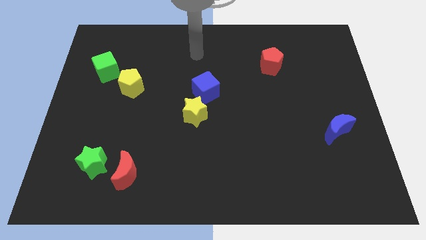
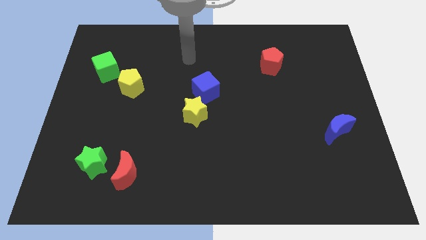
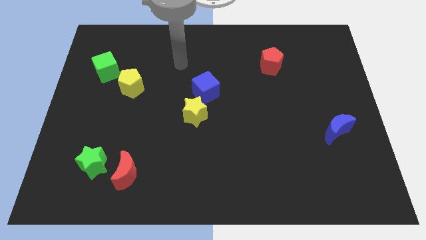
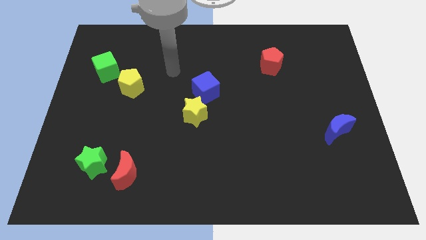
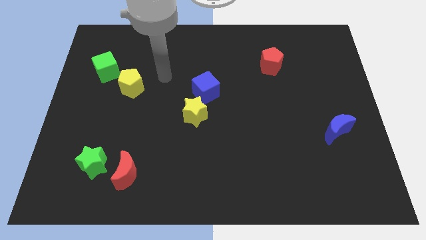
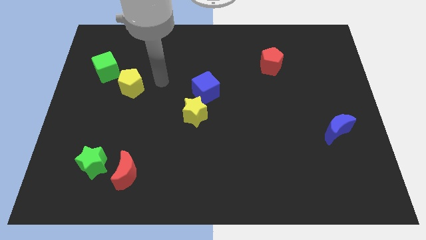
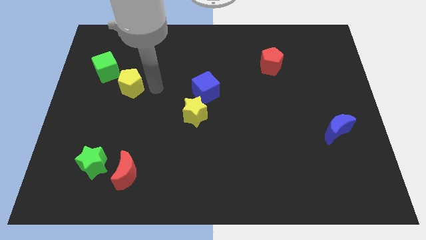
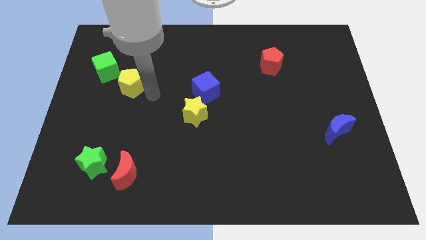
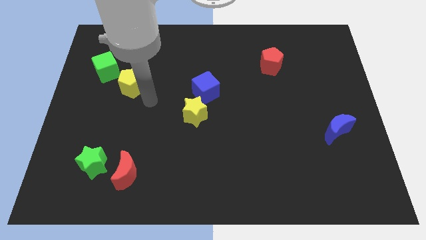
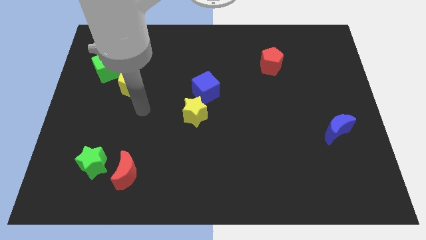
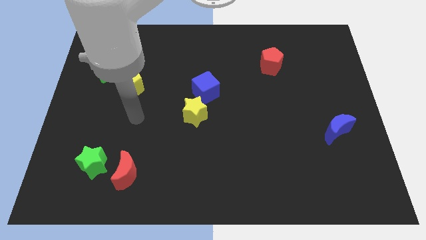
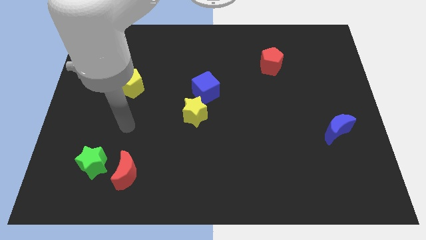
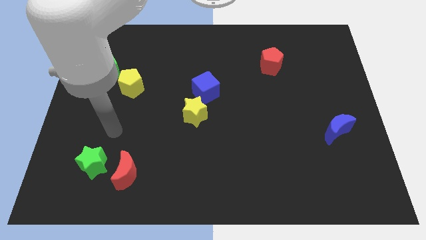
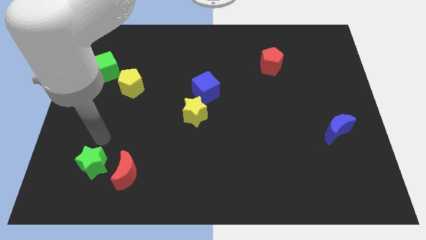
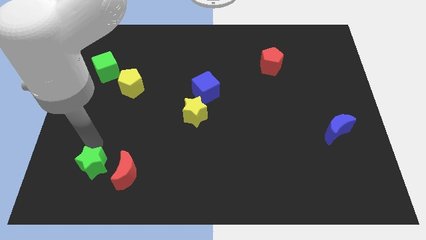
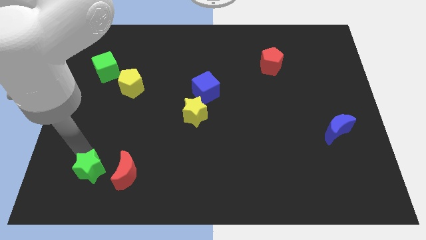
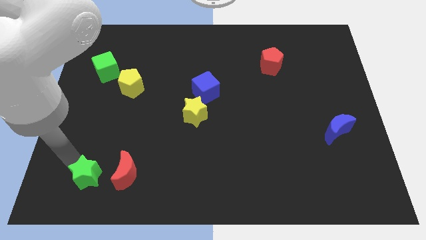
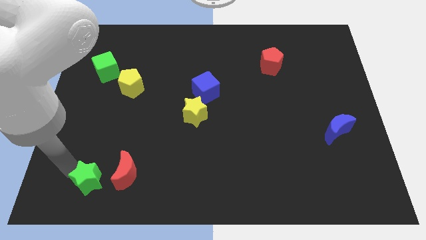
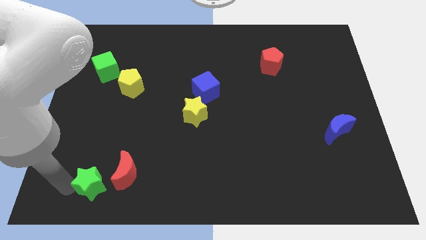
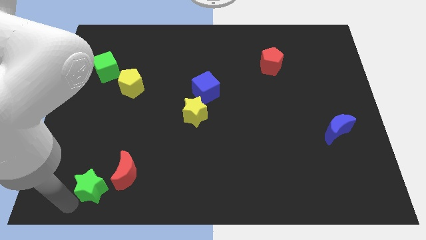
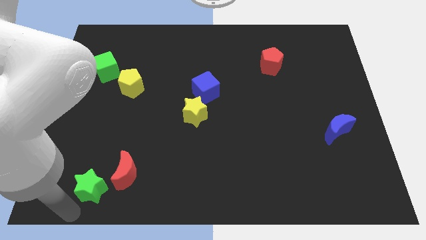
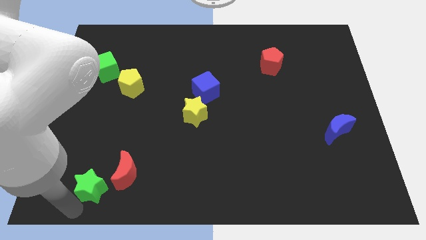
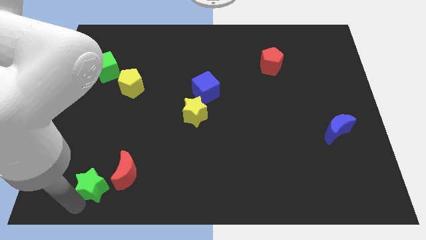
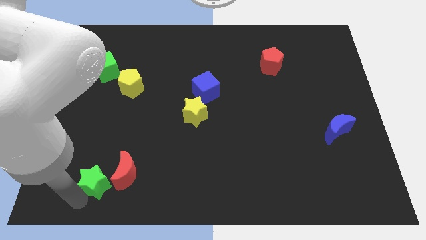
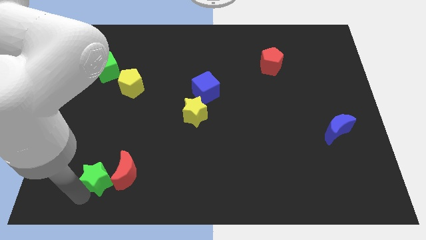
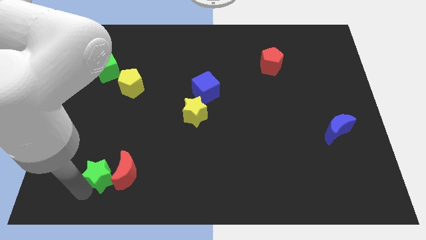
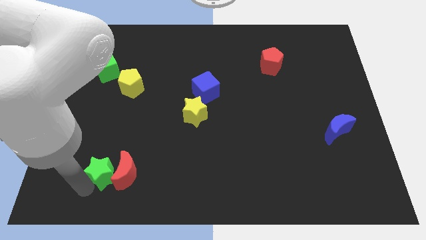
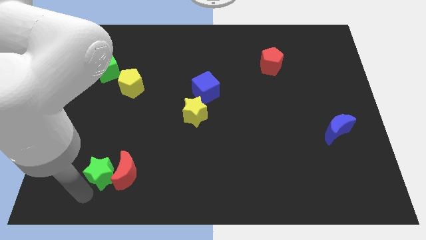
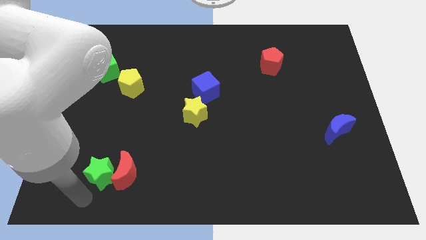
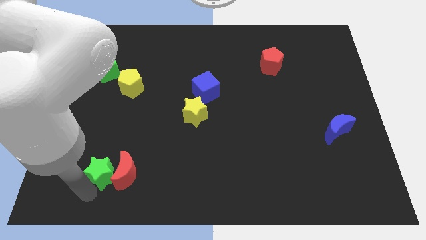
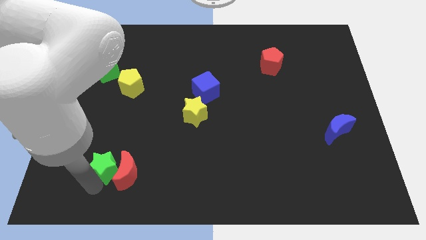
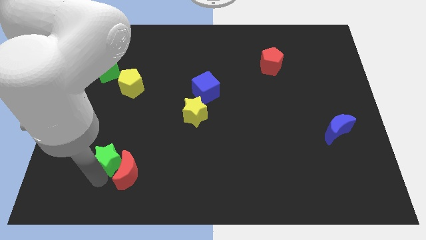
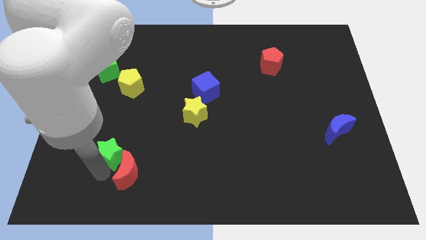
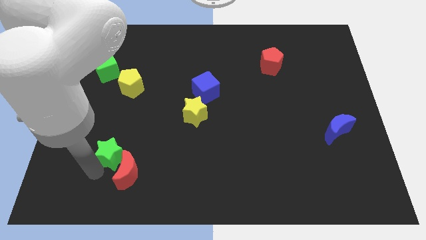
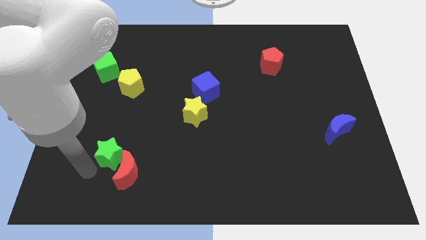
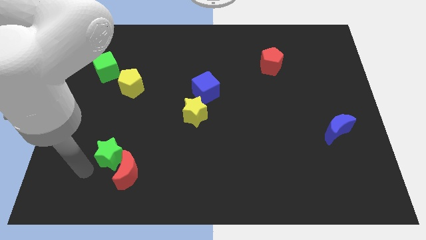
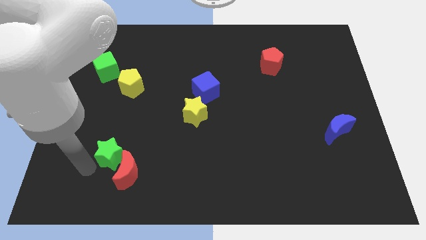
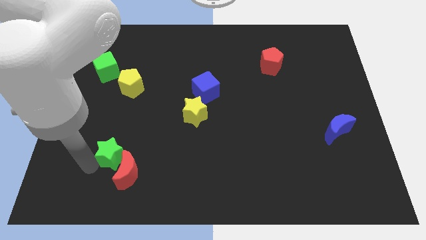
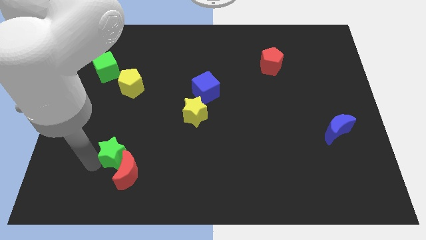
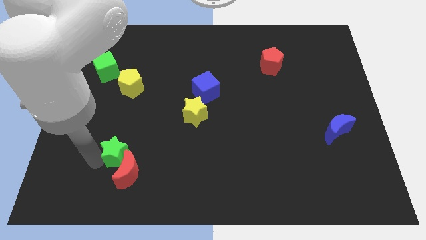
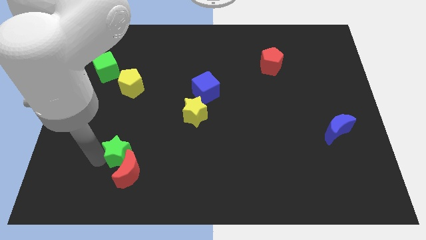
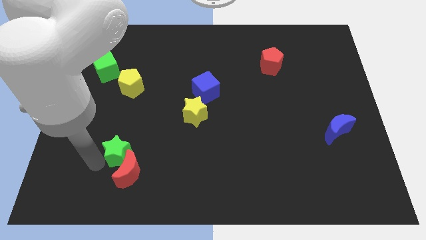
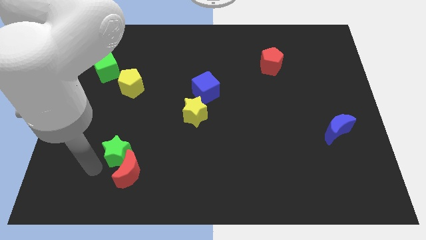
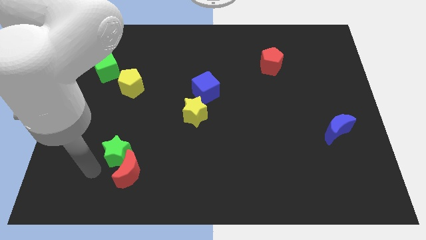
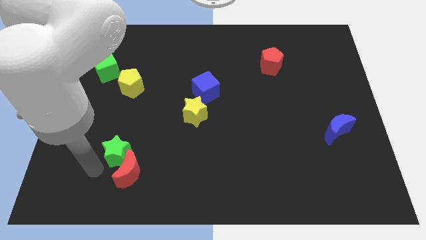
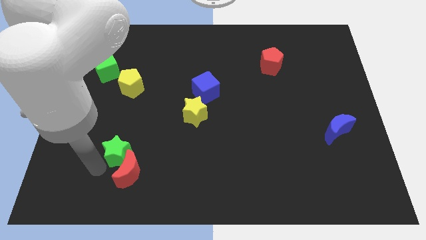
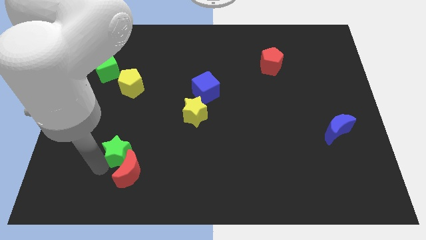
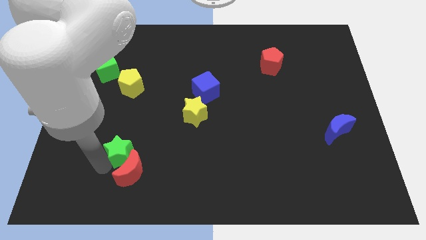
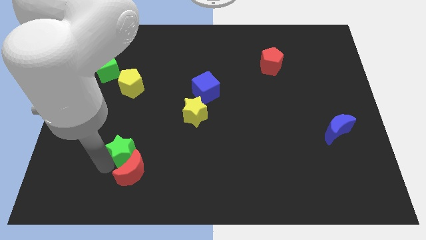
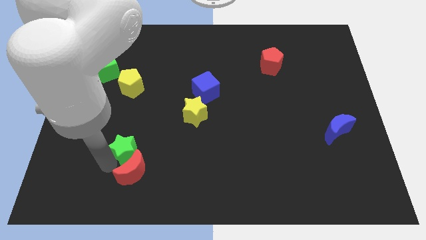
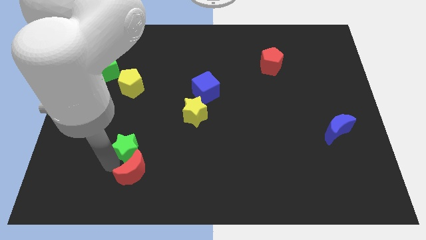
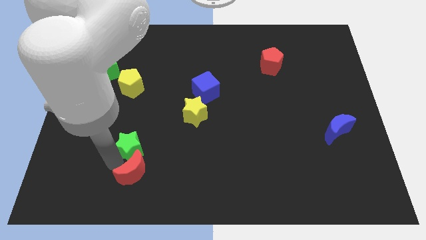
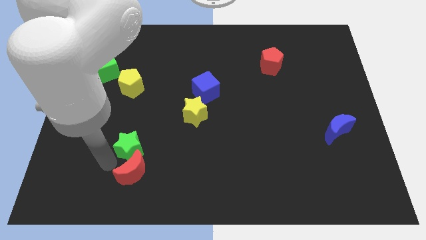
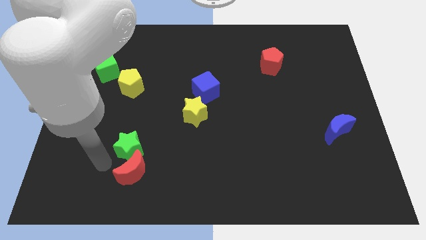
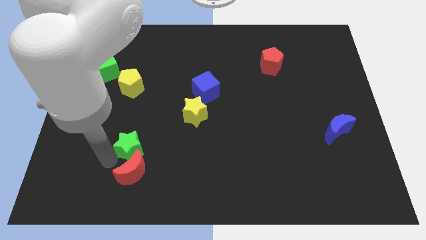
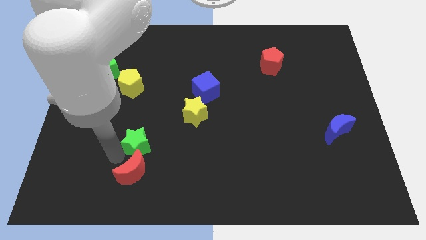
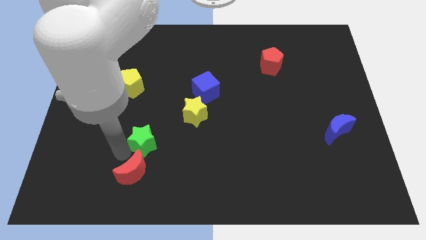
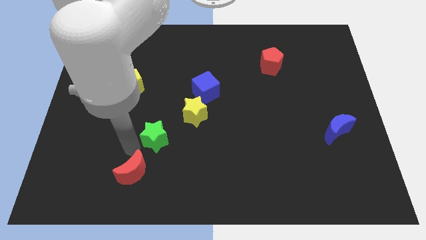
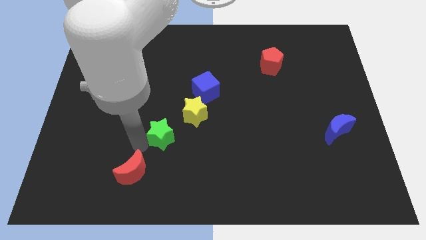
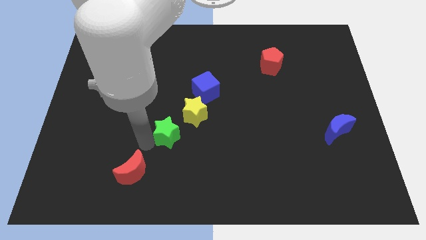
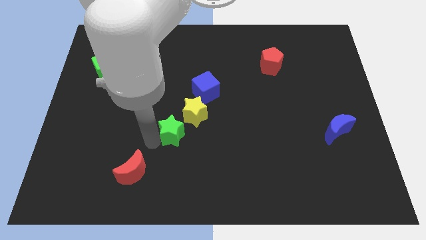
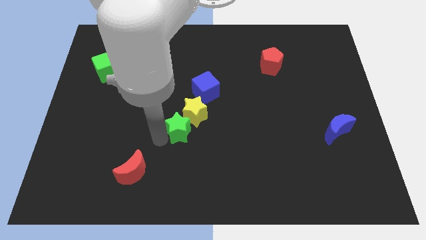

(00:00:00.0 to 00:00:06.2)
move the green star next to the yellow star

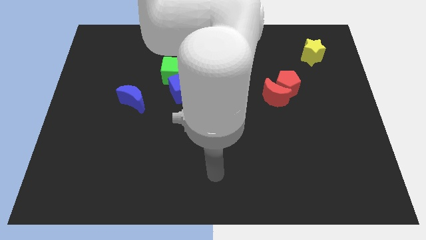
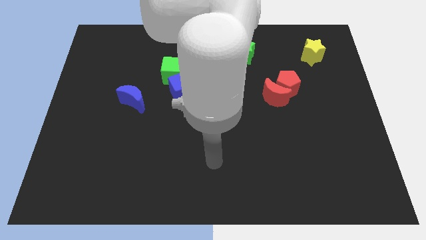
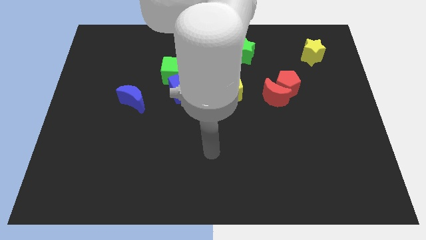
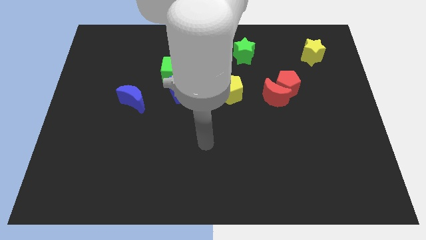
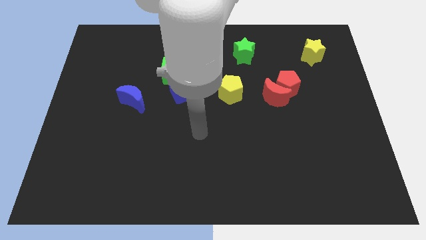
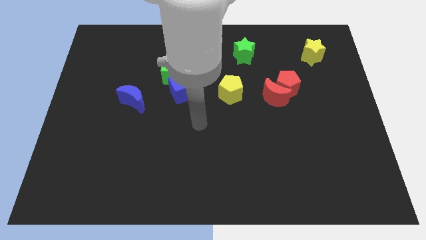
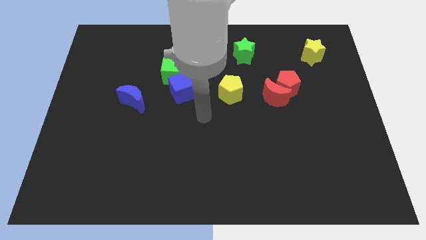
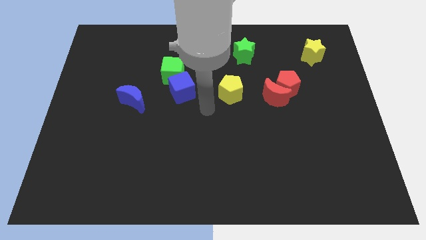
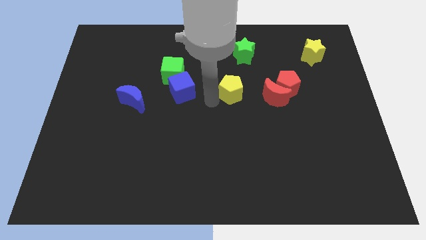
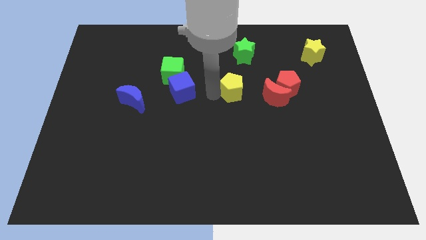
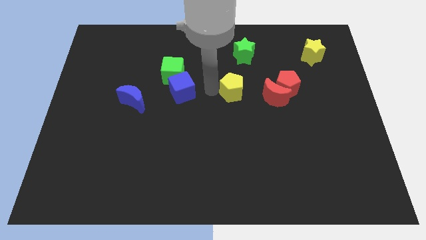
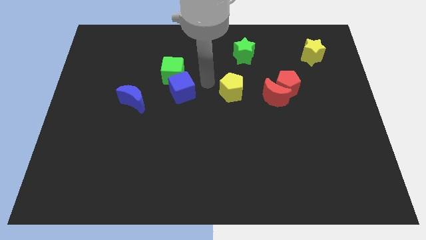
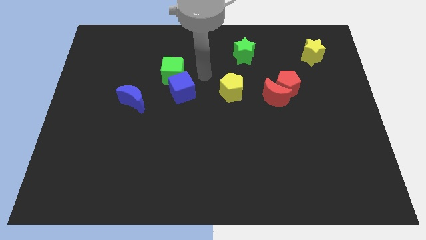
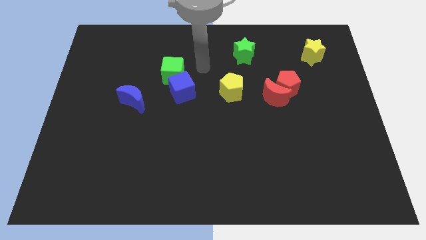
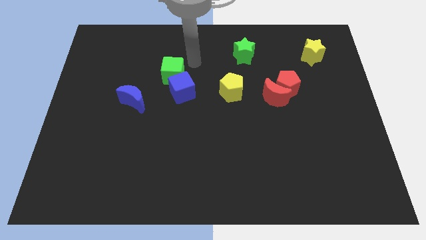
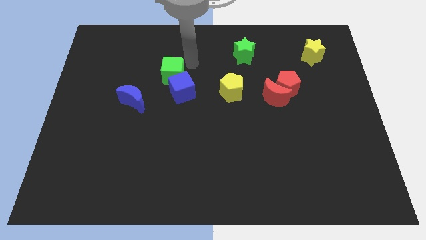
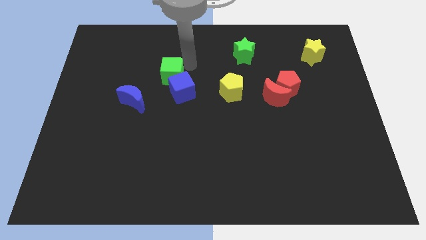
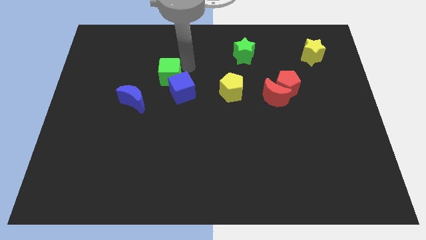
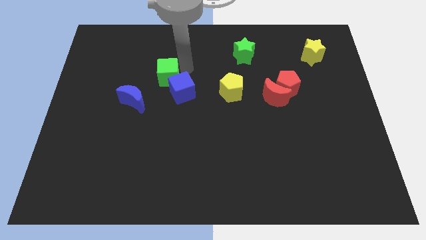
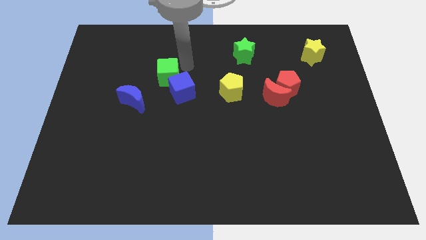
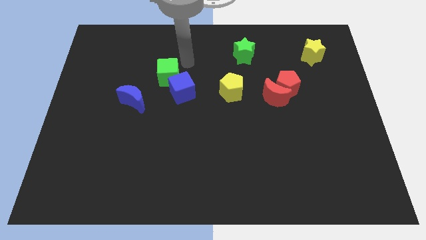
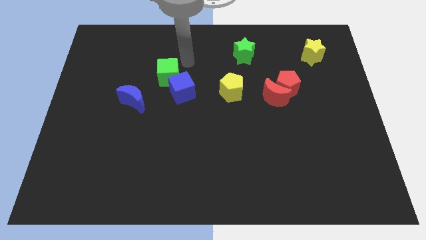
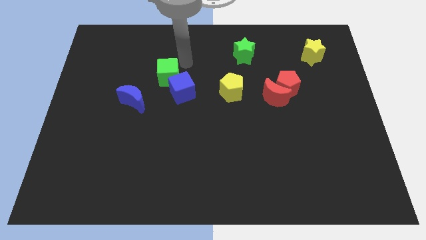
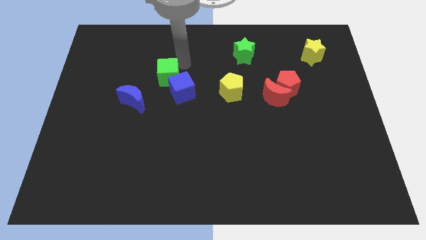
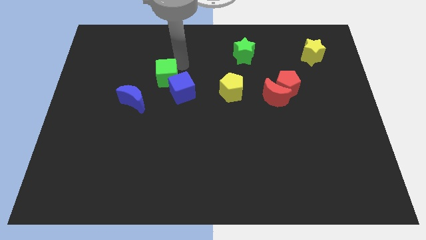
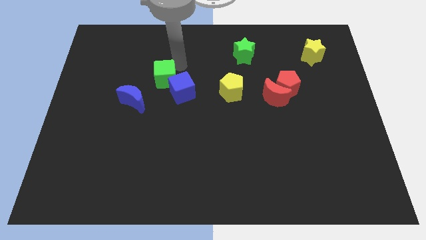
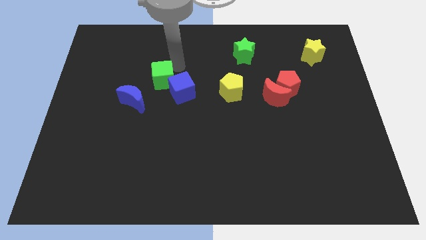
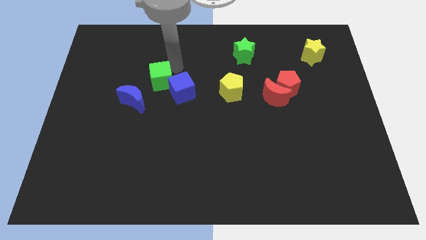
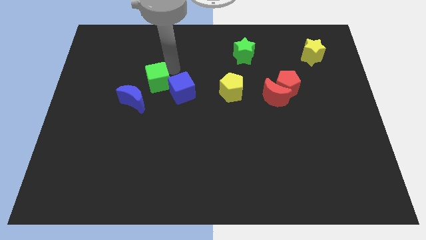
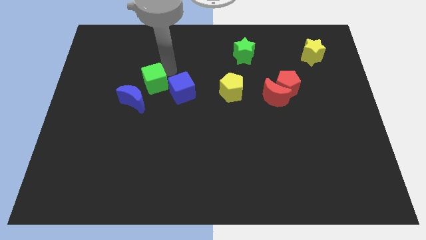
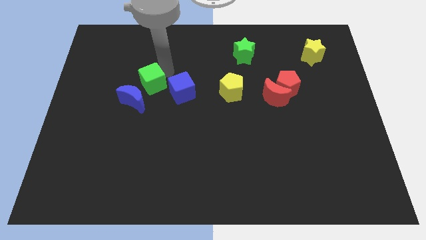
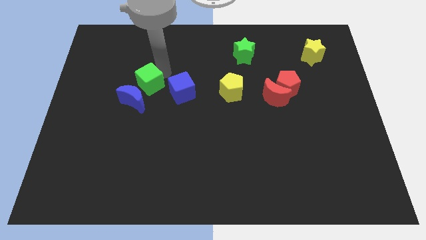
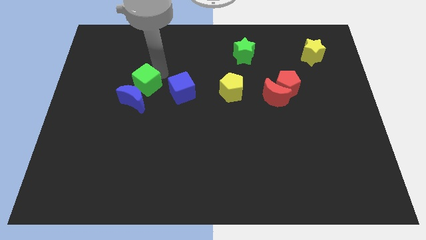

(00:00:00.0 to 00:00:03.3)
move the green cube towards the blue moon
